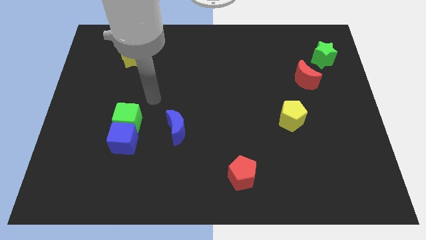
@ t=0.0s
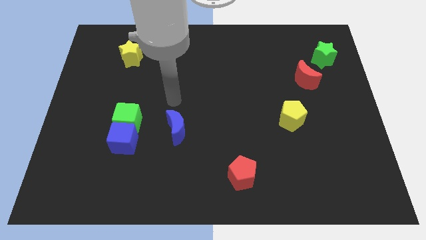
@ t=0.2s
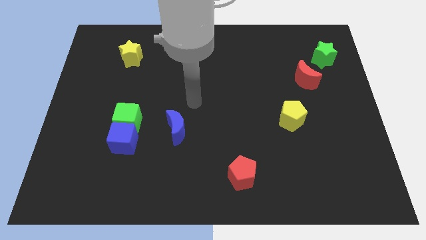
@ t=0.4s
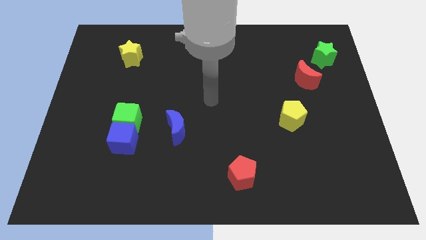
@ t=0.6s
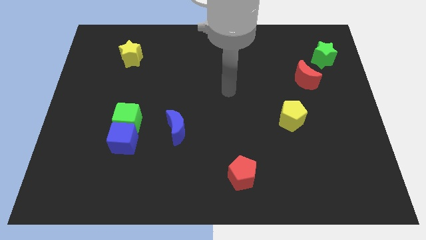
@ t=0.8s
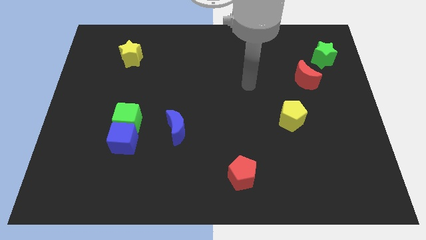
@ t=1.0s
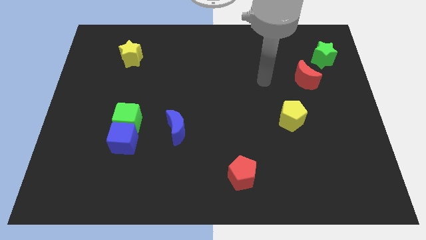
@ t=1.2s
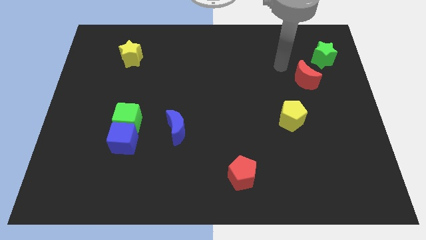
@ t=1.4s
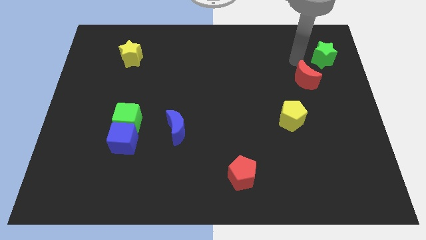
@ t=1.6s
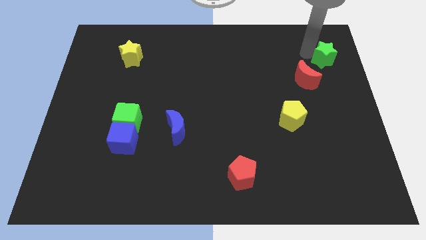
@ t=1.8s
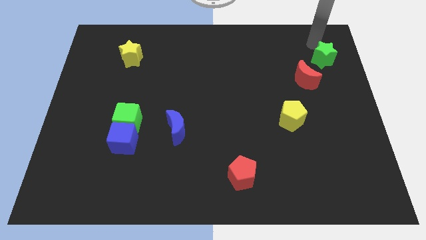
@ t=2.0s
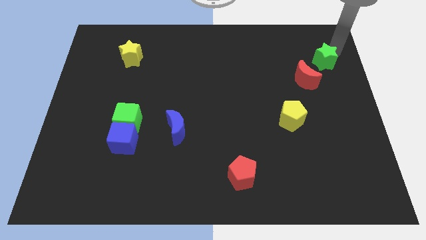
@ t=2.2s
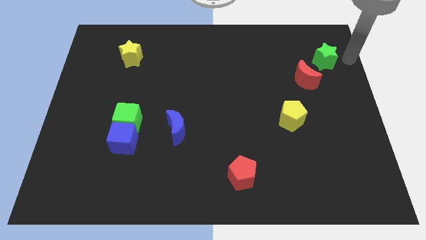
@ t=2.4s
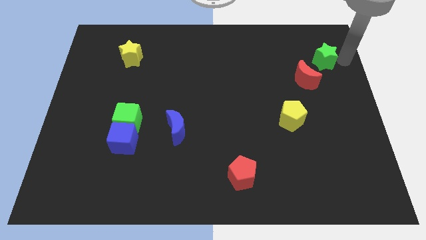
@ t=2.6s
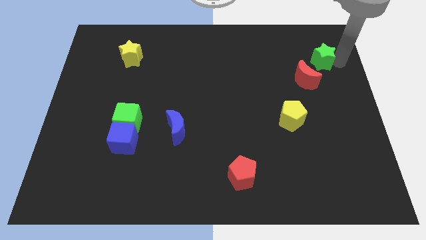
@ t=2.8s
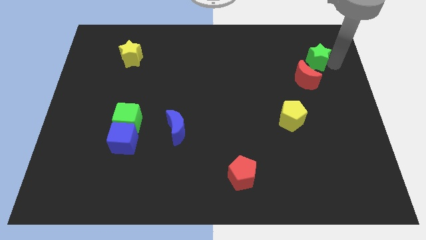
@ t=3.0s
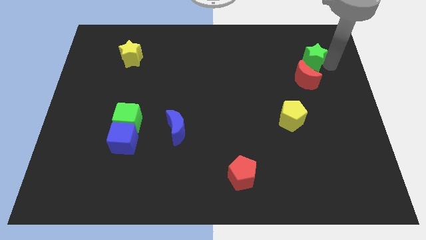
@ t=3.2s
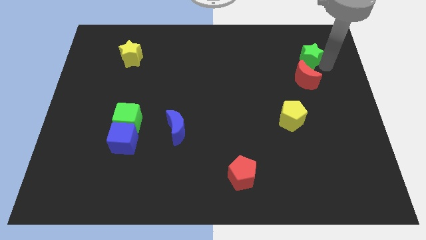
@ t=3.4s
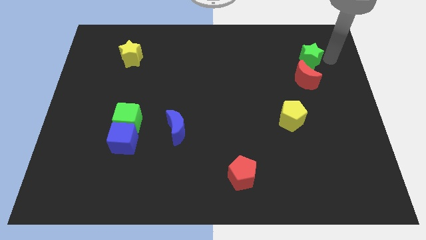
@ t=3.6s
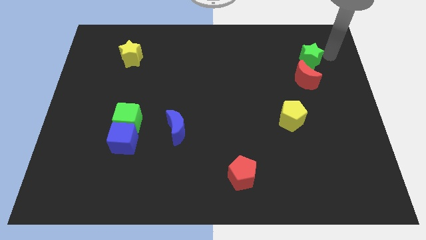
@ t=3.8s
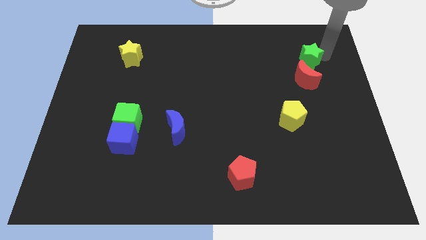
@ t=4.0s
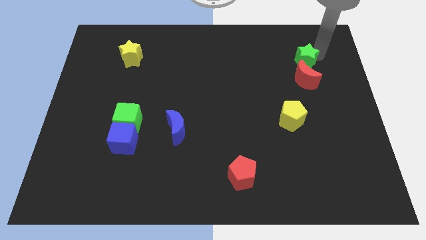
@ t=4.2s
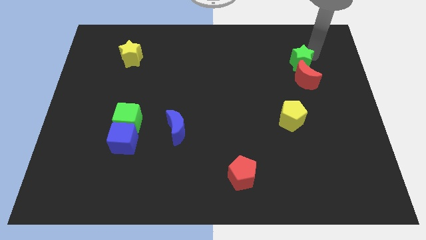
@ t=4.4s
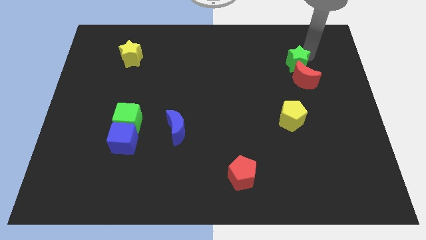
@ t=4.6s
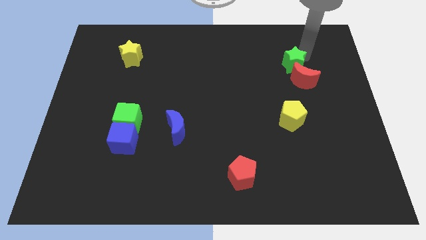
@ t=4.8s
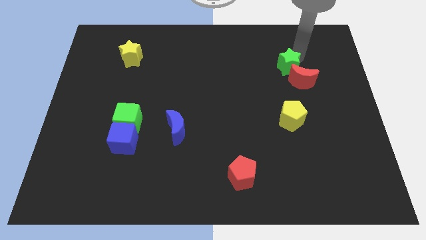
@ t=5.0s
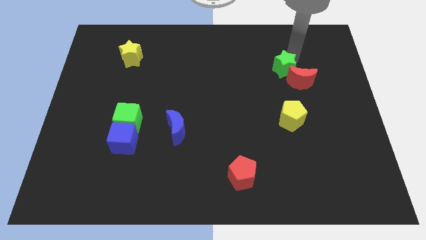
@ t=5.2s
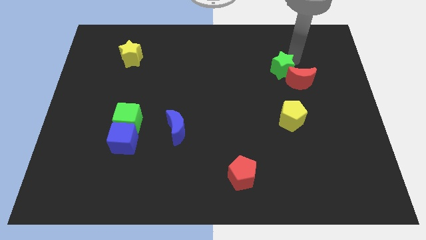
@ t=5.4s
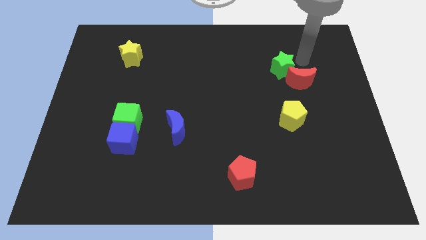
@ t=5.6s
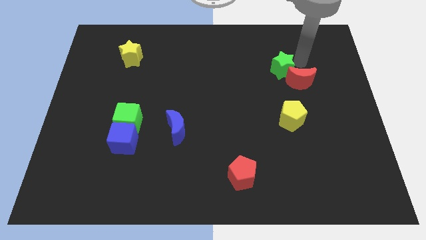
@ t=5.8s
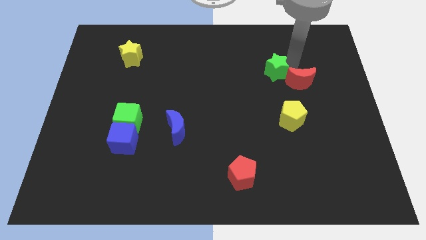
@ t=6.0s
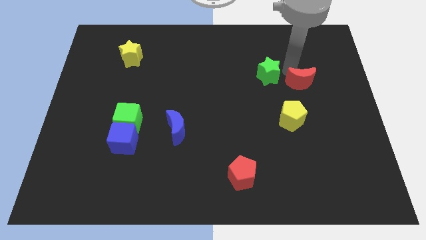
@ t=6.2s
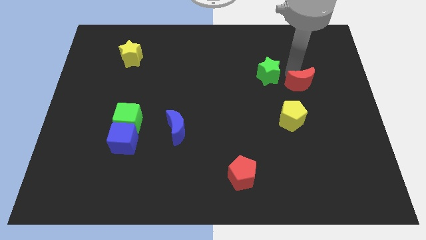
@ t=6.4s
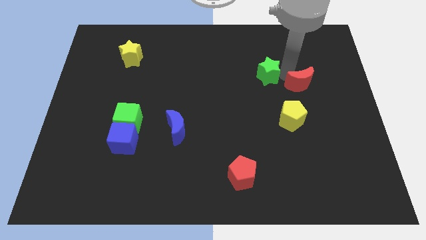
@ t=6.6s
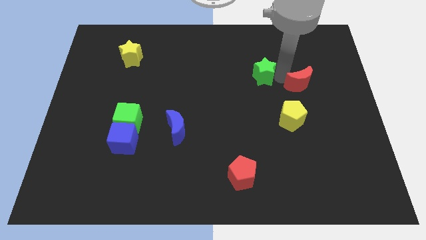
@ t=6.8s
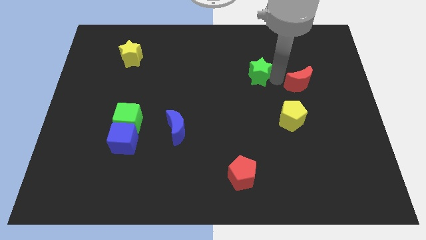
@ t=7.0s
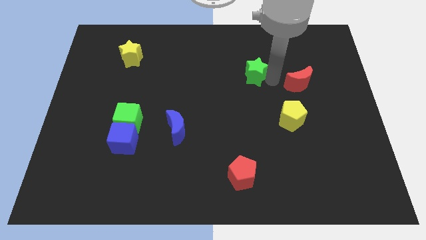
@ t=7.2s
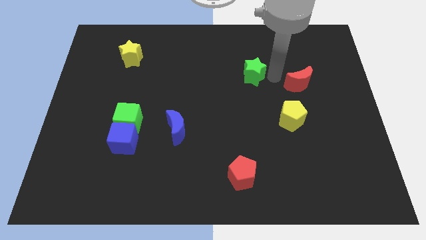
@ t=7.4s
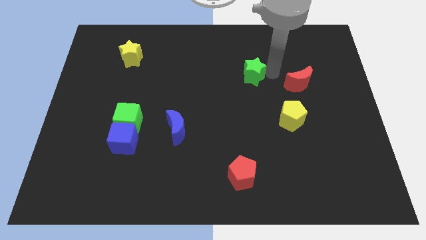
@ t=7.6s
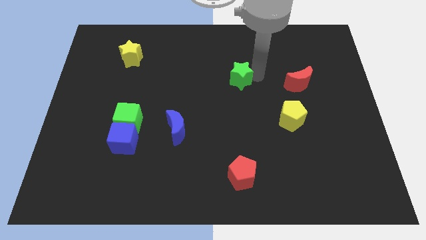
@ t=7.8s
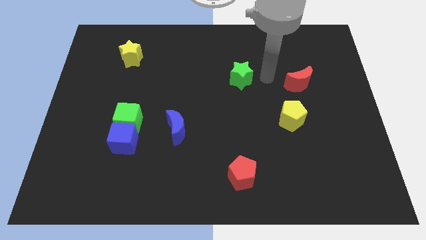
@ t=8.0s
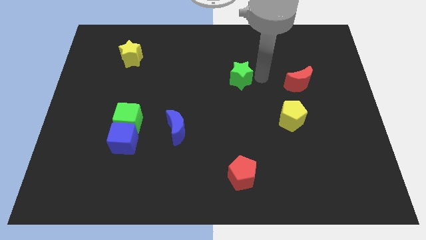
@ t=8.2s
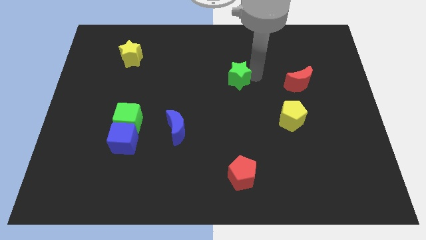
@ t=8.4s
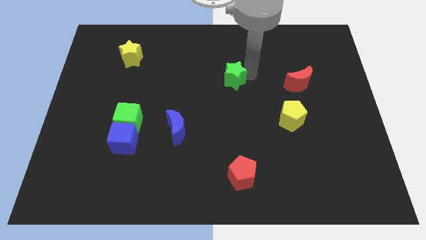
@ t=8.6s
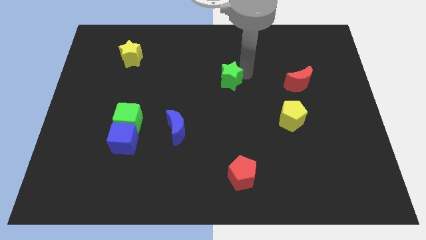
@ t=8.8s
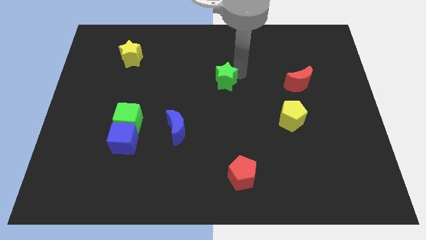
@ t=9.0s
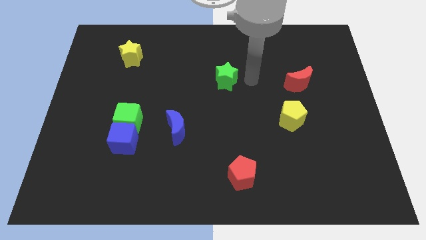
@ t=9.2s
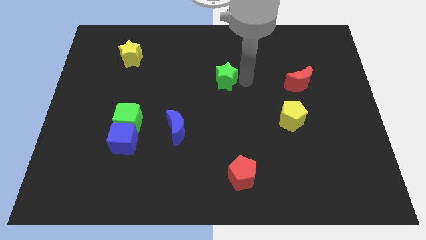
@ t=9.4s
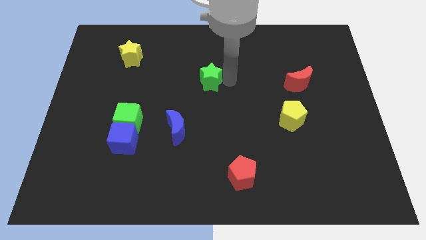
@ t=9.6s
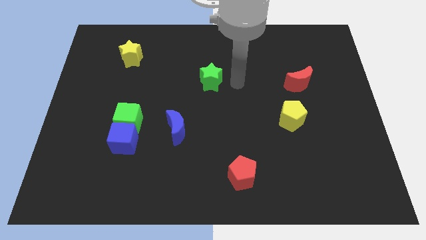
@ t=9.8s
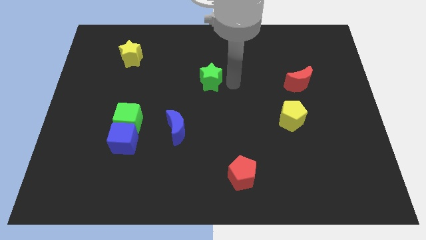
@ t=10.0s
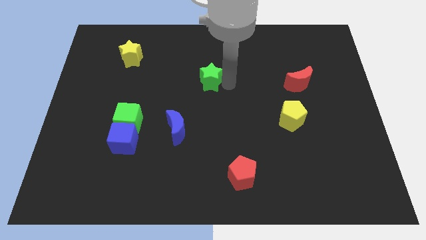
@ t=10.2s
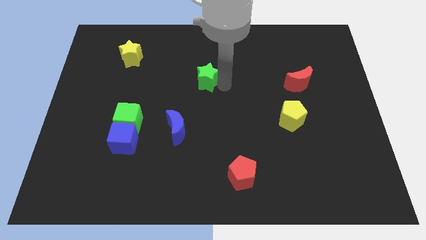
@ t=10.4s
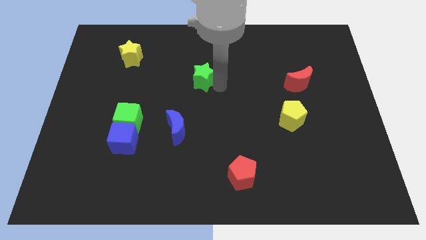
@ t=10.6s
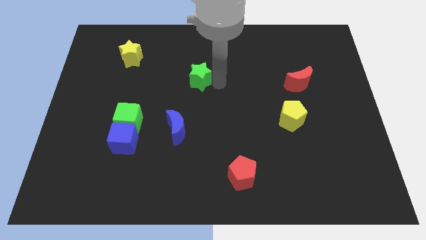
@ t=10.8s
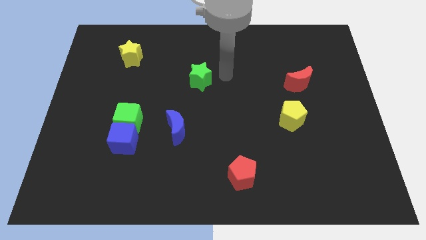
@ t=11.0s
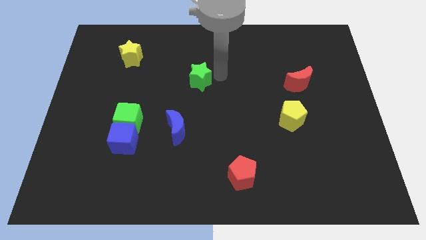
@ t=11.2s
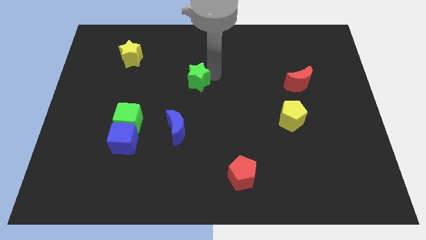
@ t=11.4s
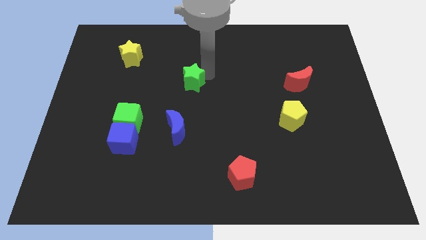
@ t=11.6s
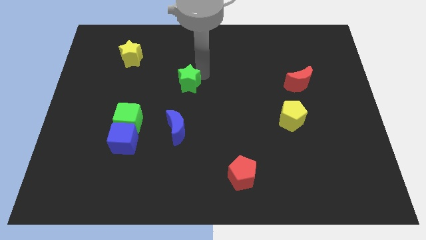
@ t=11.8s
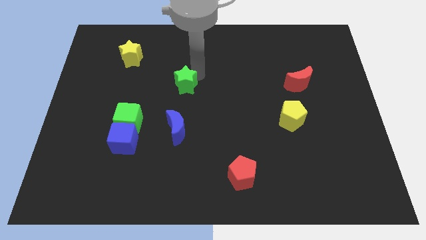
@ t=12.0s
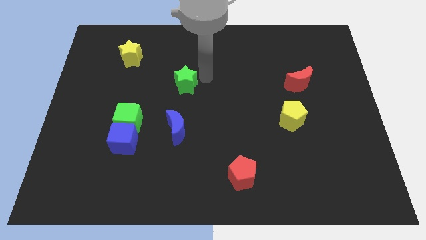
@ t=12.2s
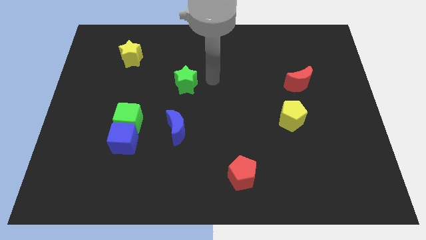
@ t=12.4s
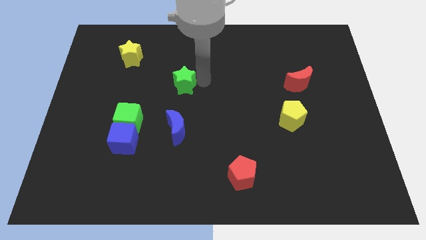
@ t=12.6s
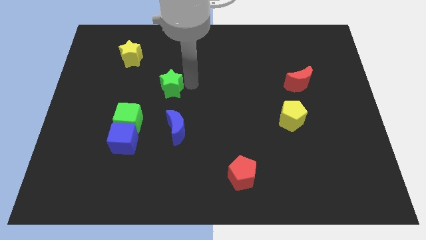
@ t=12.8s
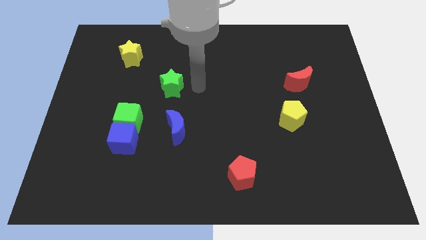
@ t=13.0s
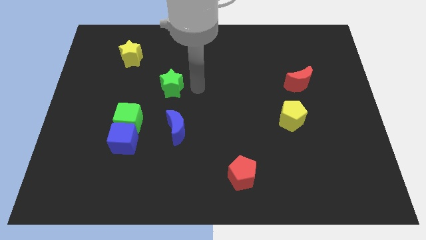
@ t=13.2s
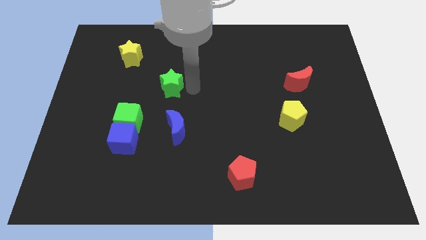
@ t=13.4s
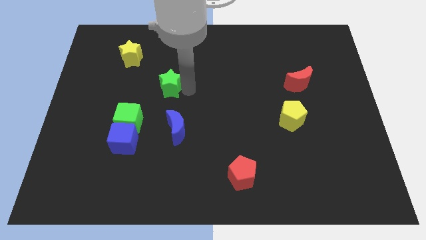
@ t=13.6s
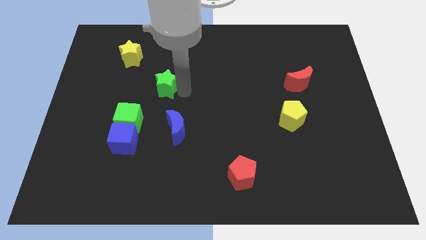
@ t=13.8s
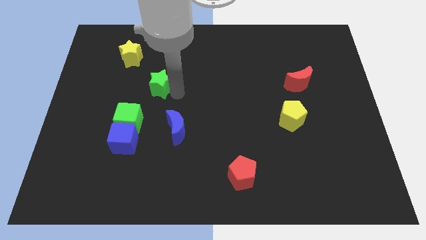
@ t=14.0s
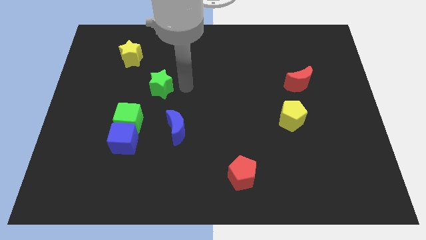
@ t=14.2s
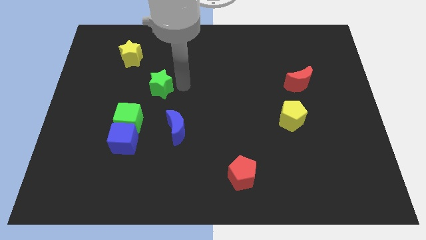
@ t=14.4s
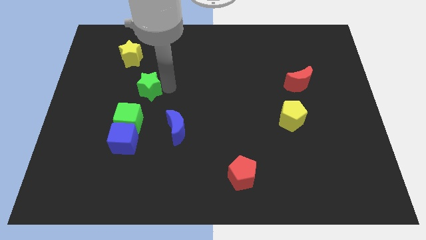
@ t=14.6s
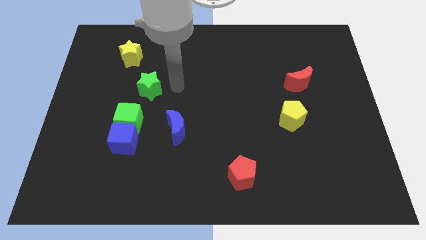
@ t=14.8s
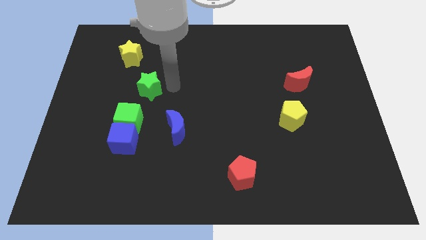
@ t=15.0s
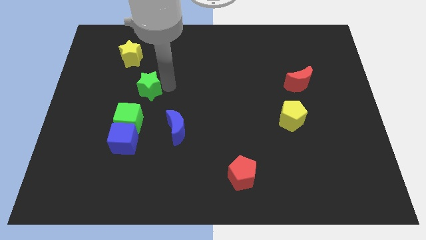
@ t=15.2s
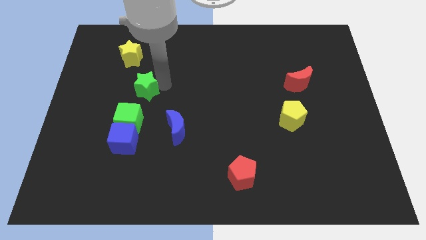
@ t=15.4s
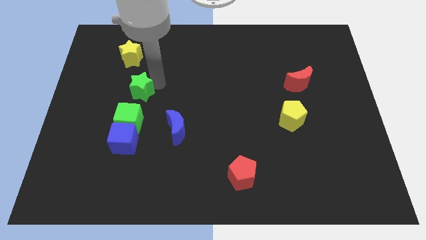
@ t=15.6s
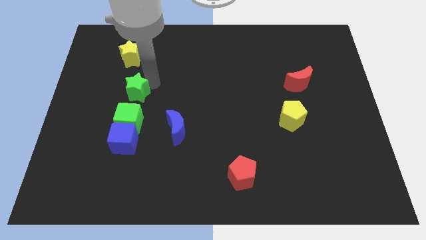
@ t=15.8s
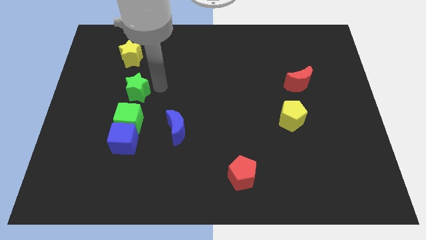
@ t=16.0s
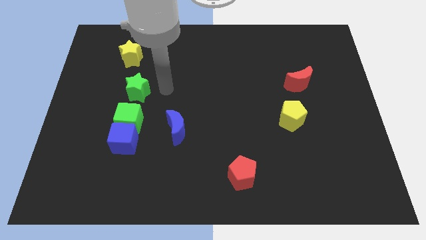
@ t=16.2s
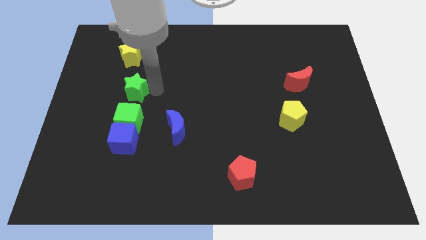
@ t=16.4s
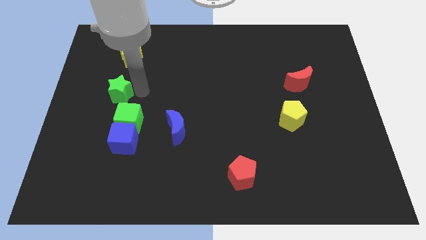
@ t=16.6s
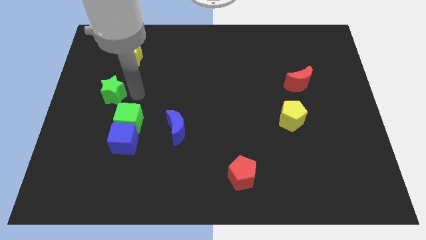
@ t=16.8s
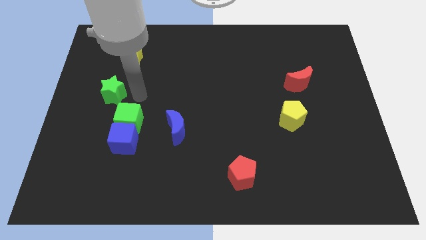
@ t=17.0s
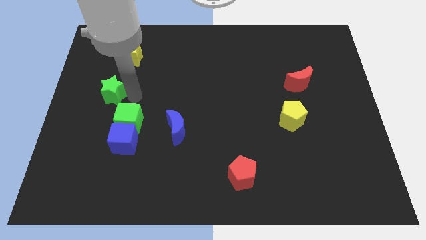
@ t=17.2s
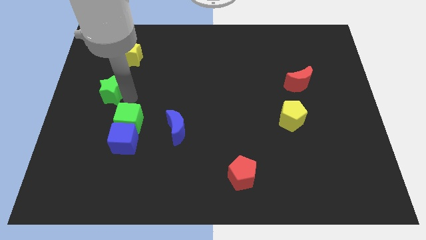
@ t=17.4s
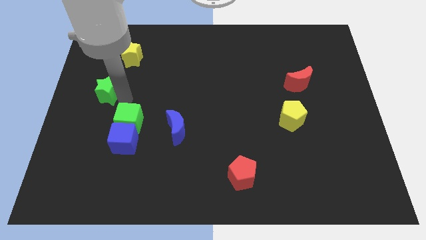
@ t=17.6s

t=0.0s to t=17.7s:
move the green star to the left side of the board
